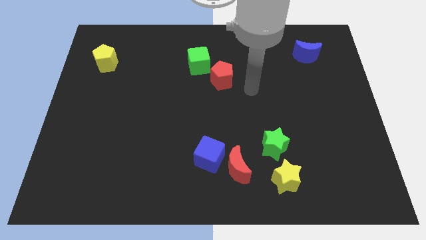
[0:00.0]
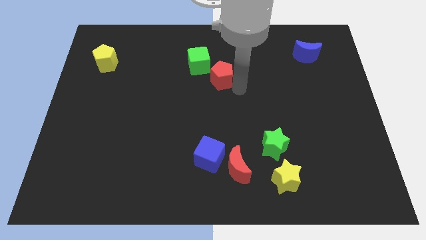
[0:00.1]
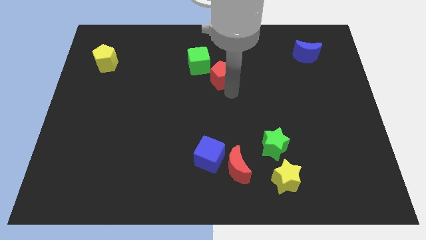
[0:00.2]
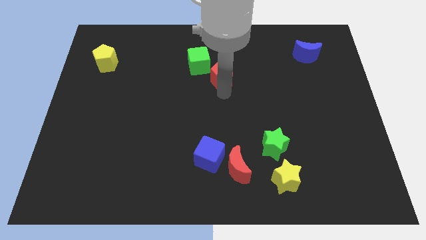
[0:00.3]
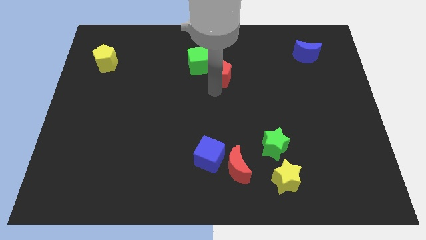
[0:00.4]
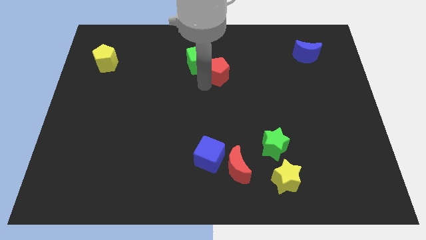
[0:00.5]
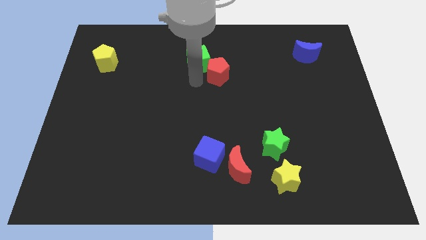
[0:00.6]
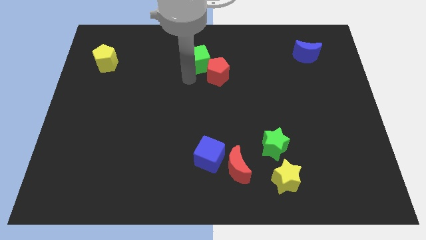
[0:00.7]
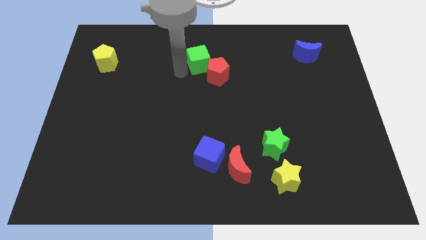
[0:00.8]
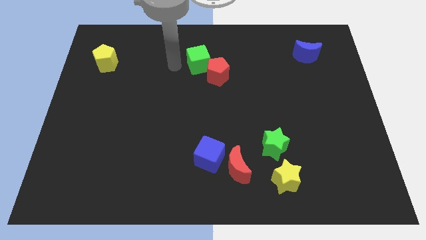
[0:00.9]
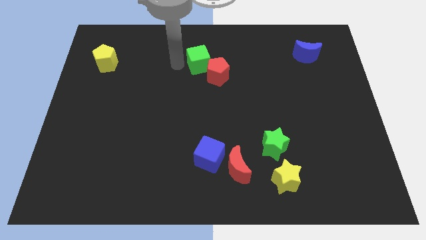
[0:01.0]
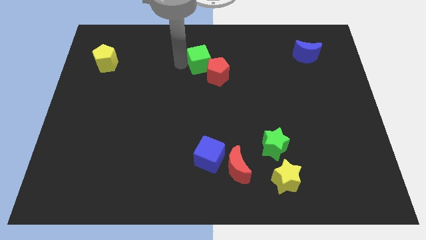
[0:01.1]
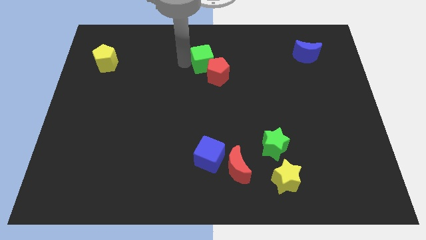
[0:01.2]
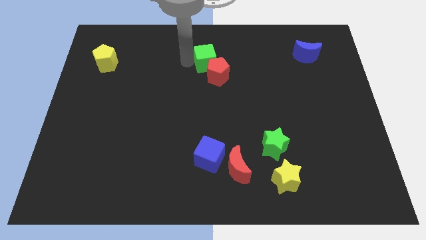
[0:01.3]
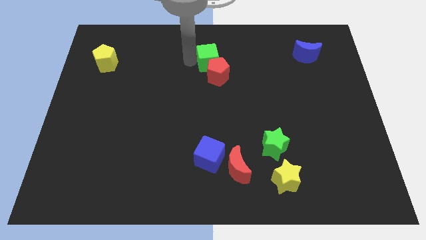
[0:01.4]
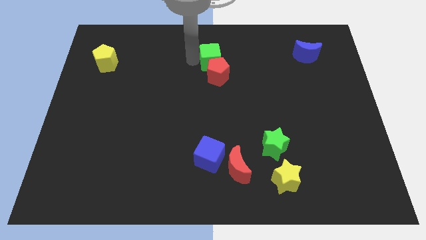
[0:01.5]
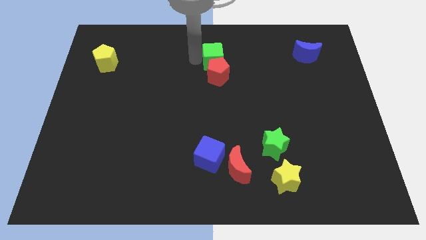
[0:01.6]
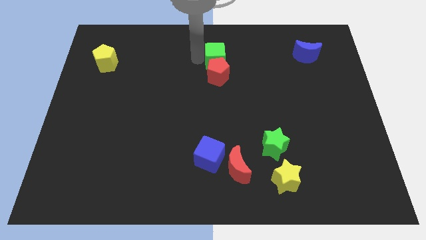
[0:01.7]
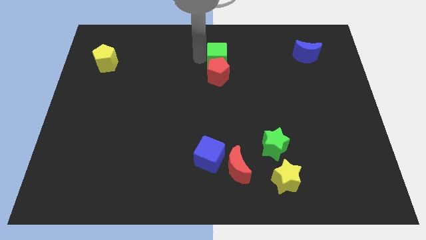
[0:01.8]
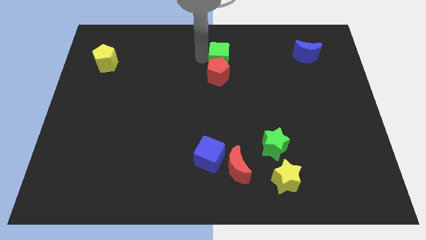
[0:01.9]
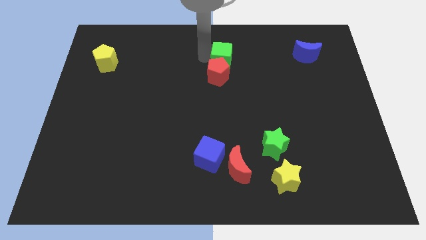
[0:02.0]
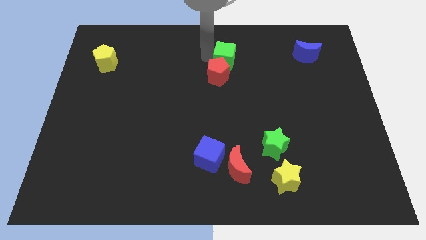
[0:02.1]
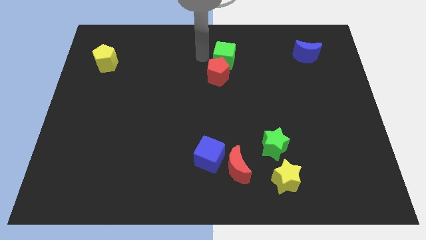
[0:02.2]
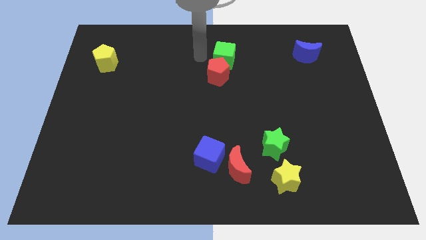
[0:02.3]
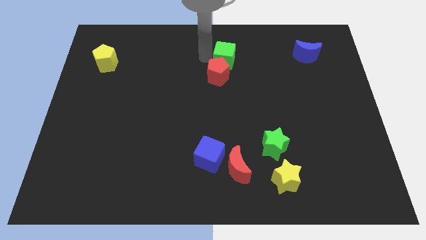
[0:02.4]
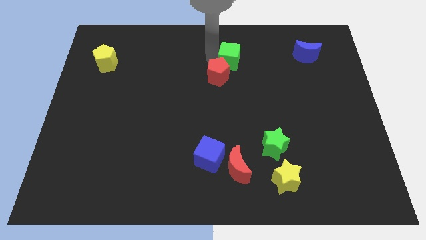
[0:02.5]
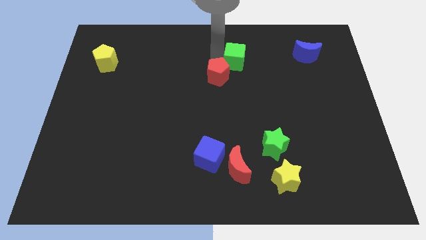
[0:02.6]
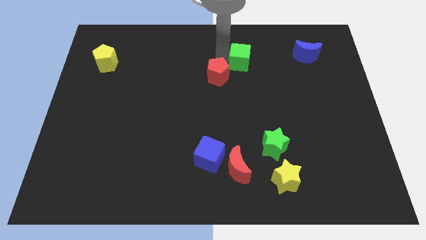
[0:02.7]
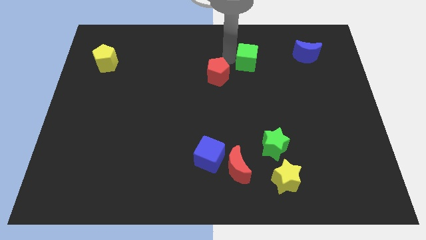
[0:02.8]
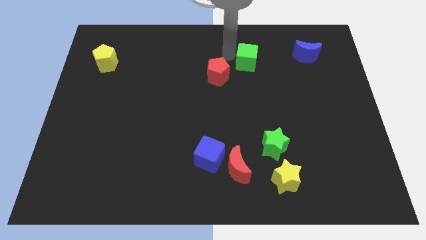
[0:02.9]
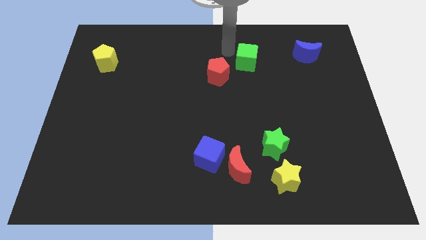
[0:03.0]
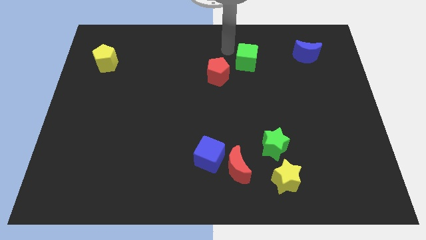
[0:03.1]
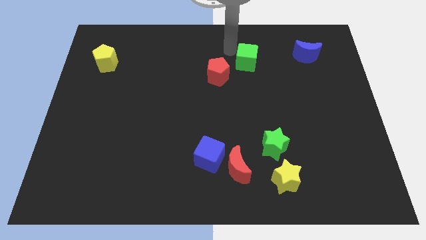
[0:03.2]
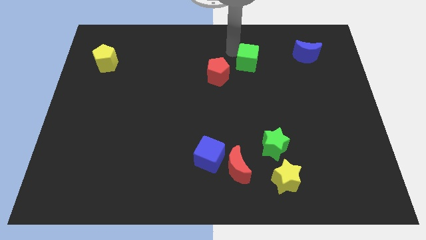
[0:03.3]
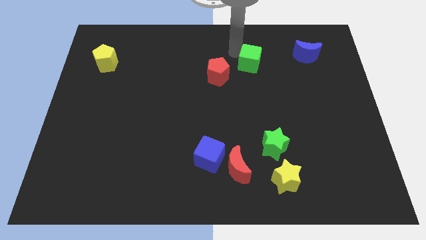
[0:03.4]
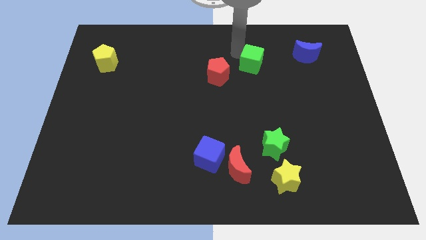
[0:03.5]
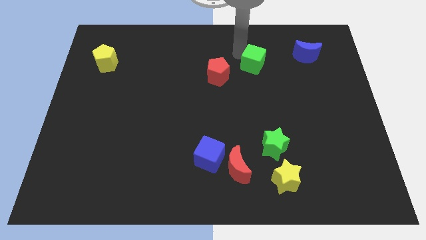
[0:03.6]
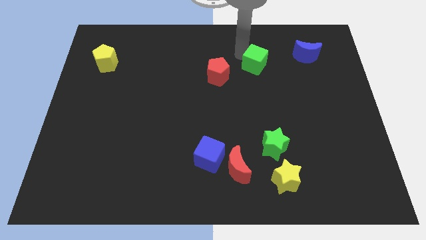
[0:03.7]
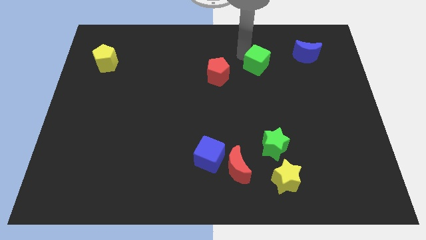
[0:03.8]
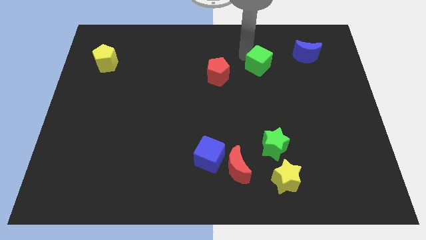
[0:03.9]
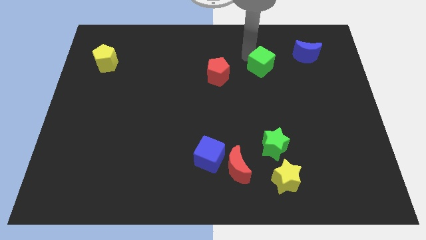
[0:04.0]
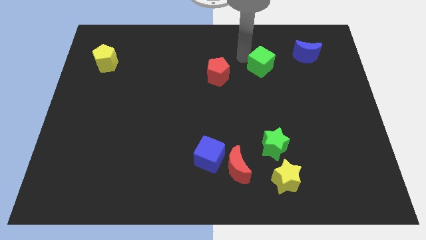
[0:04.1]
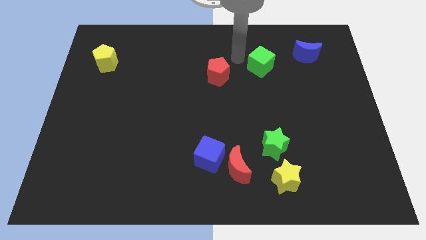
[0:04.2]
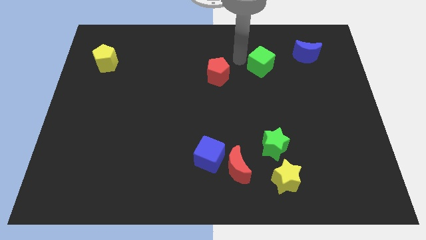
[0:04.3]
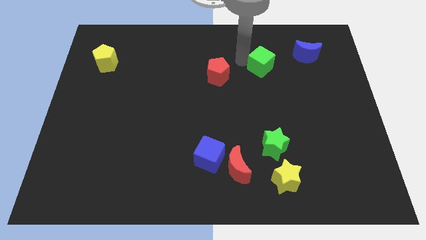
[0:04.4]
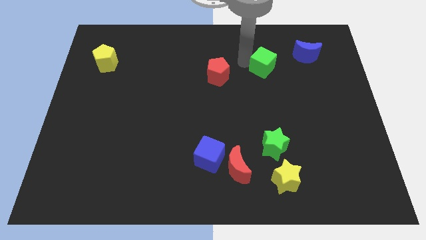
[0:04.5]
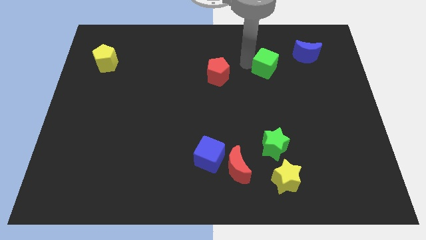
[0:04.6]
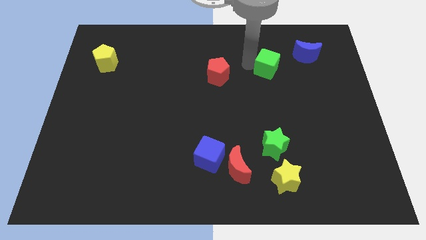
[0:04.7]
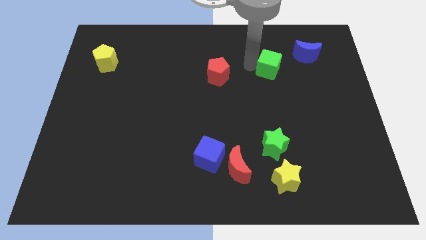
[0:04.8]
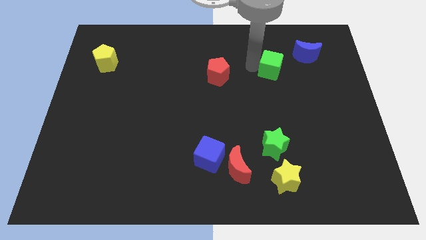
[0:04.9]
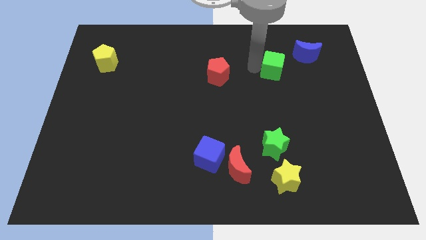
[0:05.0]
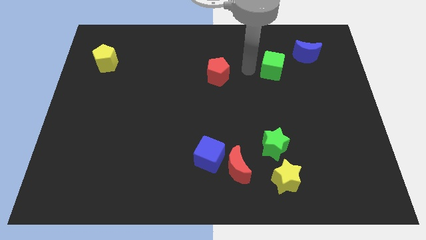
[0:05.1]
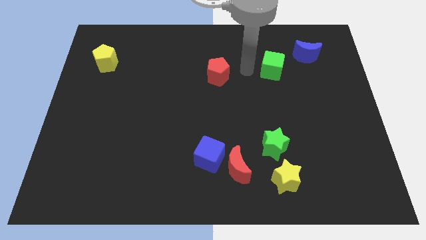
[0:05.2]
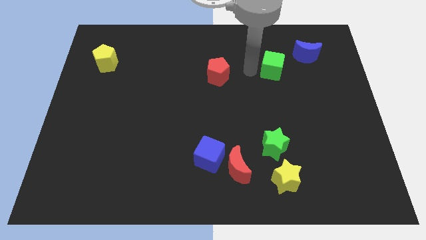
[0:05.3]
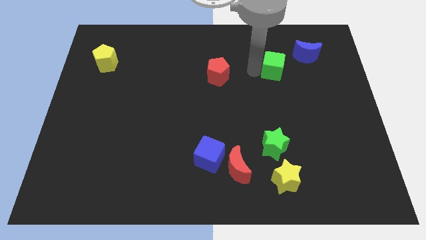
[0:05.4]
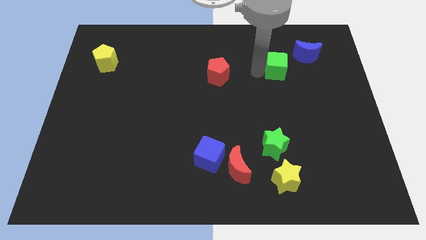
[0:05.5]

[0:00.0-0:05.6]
push the green cube right

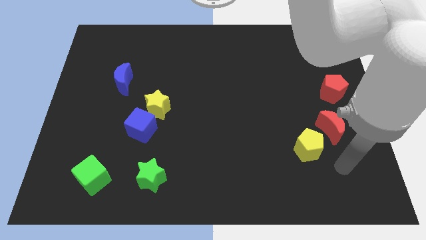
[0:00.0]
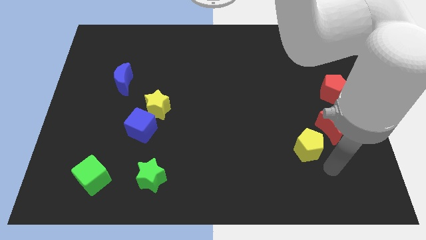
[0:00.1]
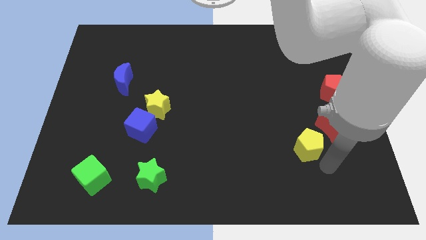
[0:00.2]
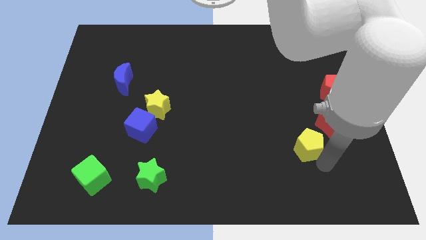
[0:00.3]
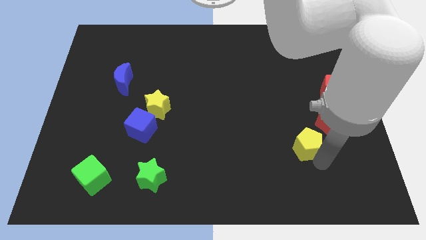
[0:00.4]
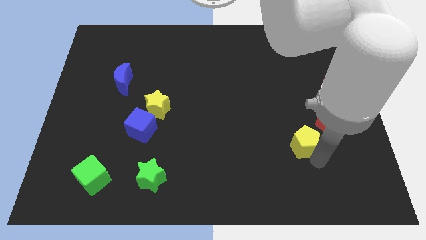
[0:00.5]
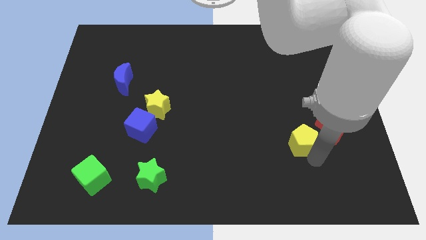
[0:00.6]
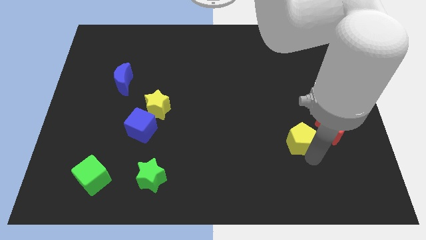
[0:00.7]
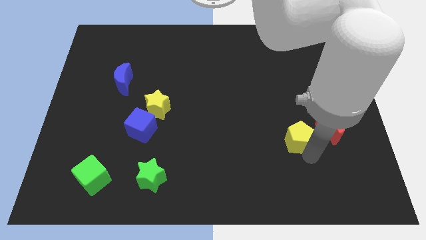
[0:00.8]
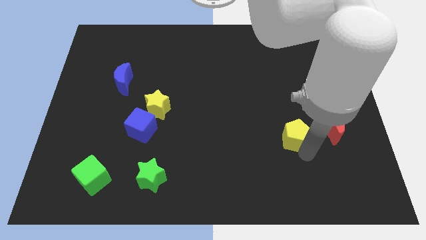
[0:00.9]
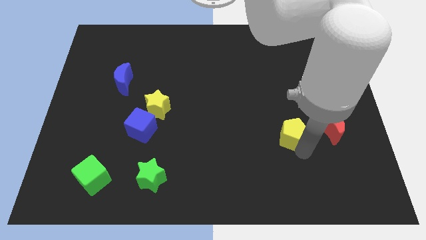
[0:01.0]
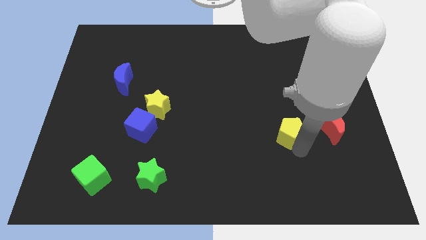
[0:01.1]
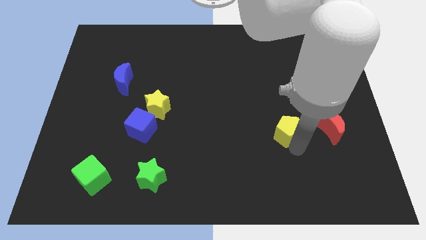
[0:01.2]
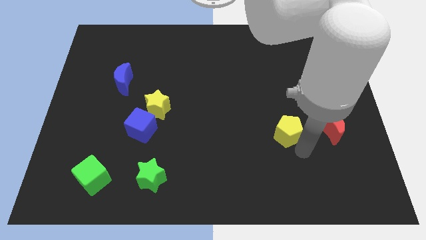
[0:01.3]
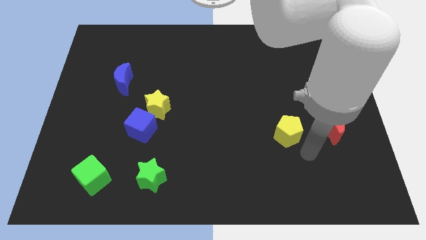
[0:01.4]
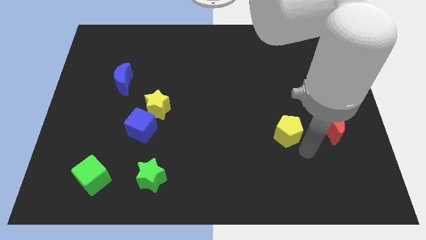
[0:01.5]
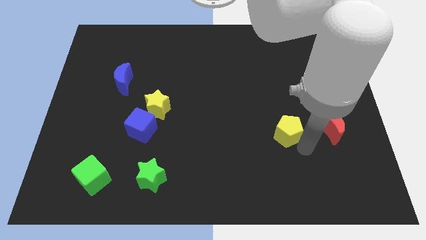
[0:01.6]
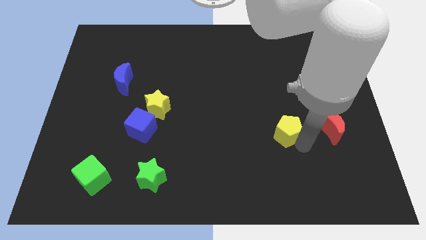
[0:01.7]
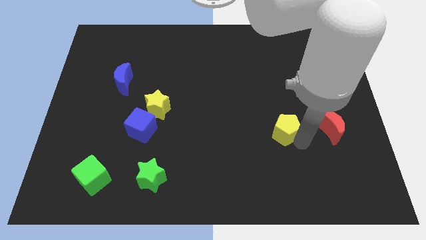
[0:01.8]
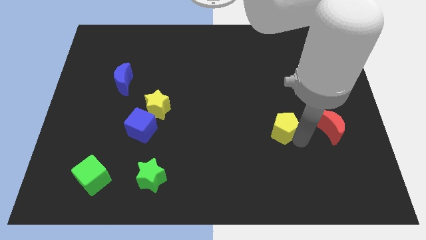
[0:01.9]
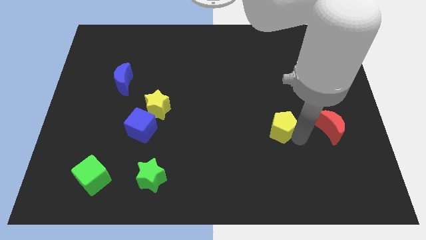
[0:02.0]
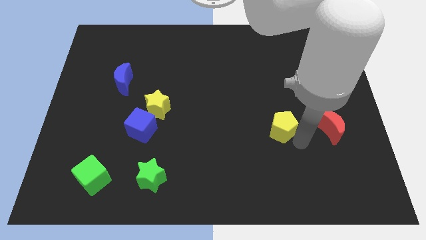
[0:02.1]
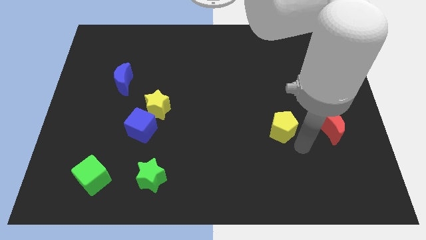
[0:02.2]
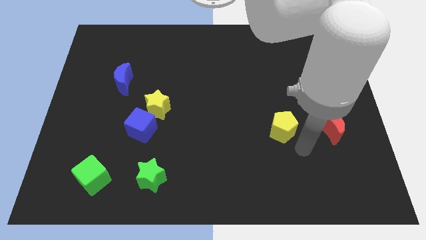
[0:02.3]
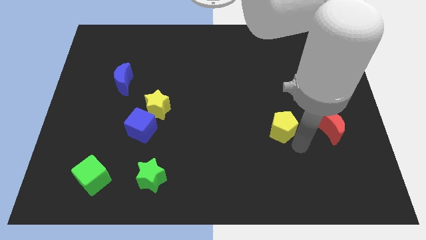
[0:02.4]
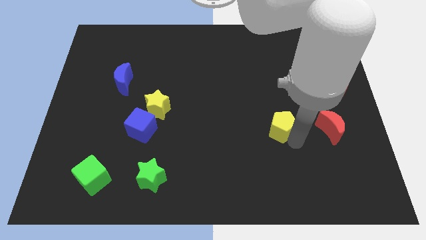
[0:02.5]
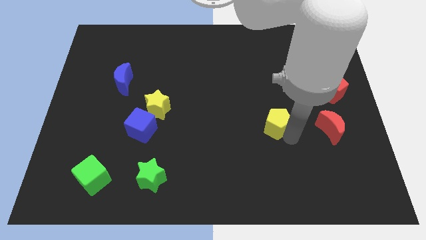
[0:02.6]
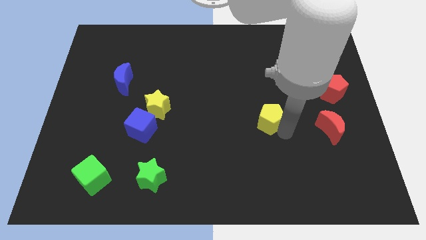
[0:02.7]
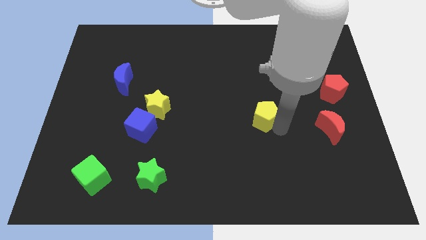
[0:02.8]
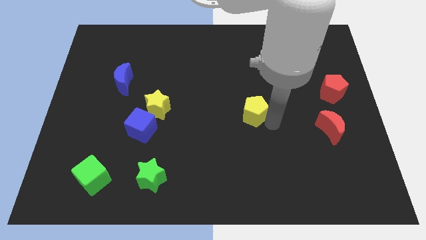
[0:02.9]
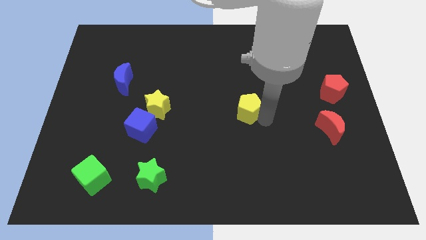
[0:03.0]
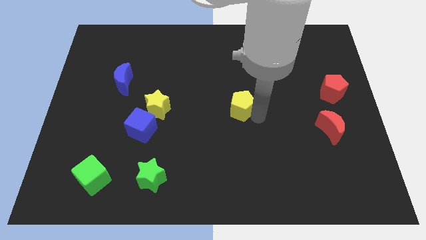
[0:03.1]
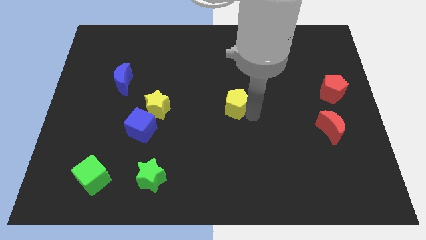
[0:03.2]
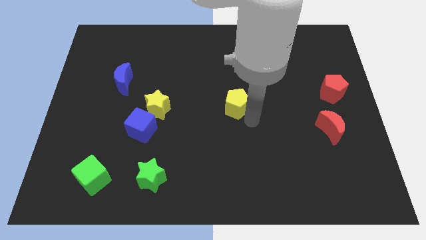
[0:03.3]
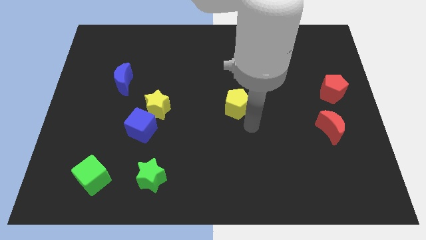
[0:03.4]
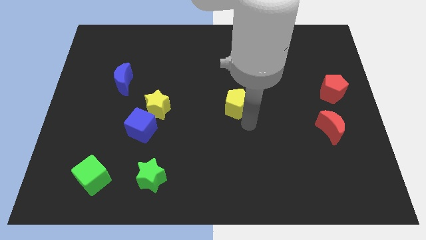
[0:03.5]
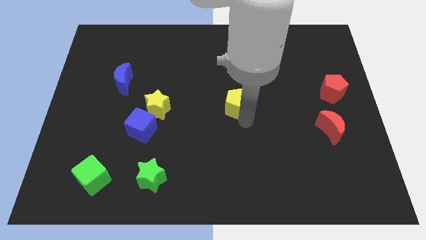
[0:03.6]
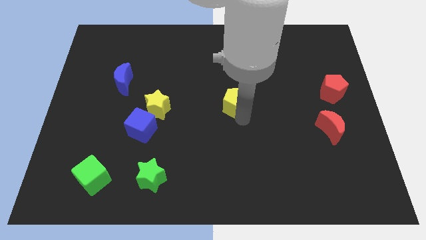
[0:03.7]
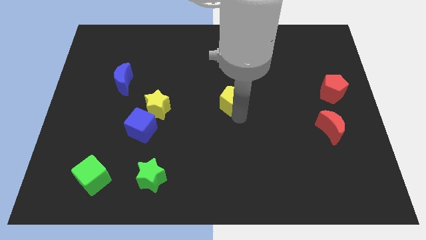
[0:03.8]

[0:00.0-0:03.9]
move the yellow pentagon up and then to the left
